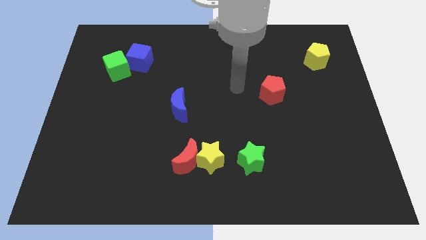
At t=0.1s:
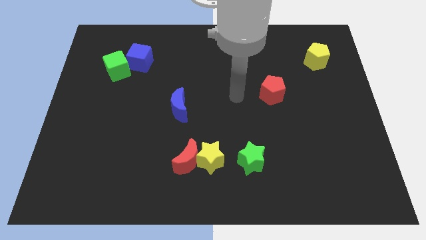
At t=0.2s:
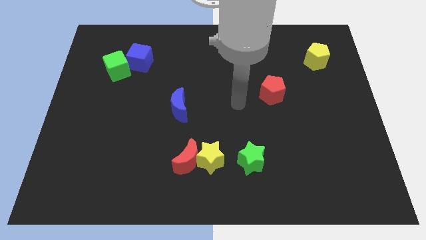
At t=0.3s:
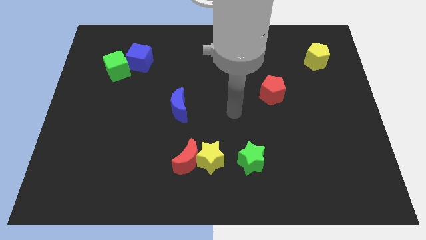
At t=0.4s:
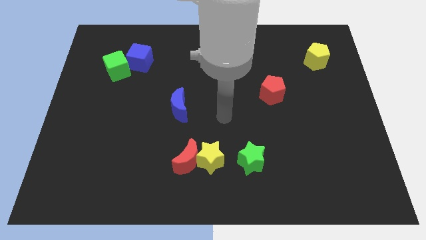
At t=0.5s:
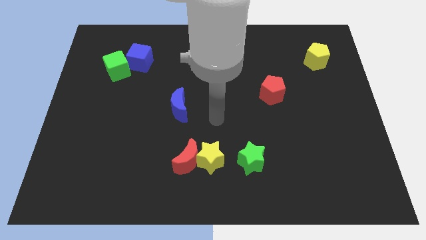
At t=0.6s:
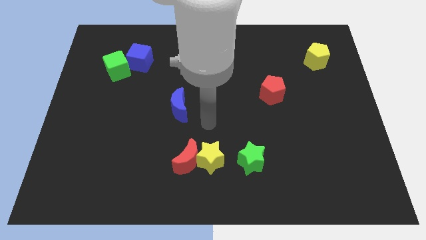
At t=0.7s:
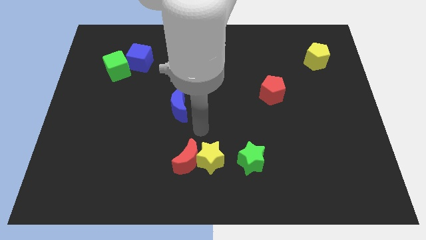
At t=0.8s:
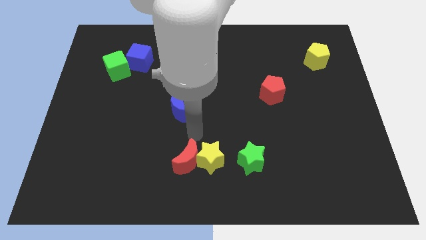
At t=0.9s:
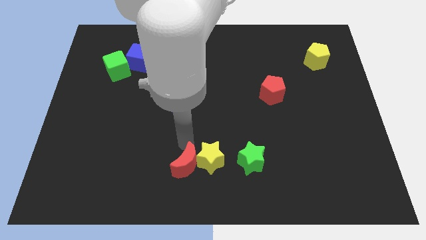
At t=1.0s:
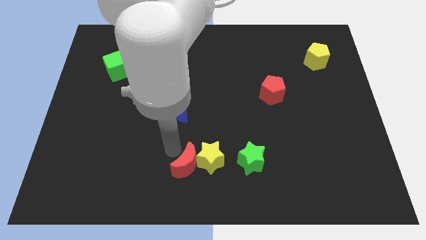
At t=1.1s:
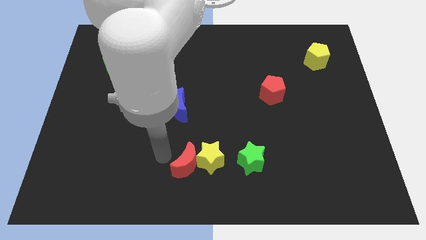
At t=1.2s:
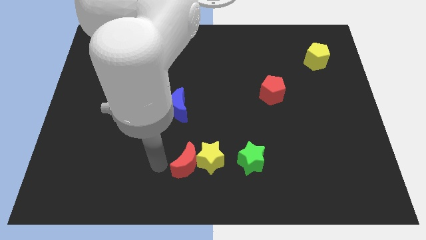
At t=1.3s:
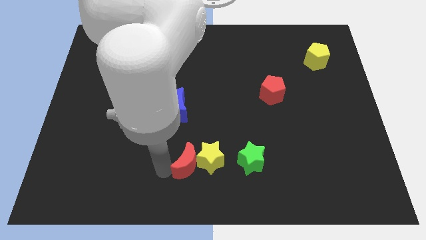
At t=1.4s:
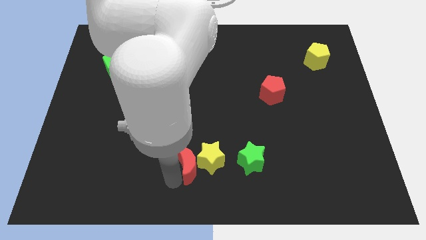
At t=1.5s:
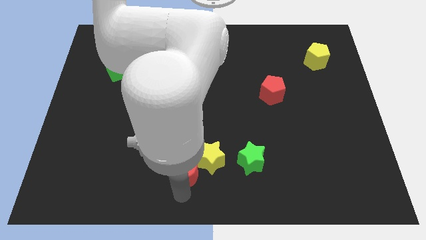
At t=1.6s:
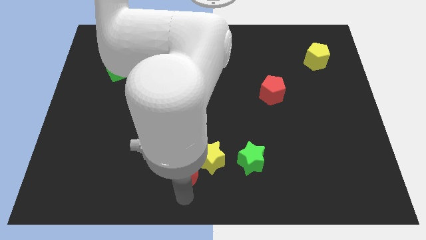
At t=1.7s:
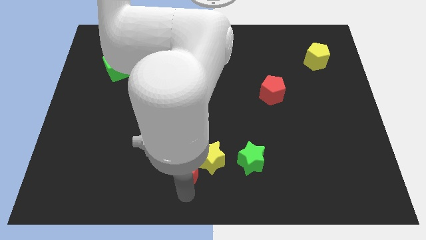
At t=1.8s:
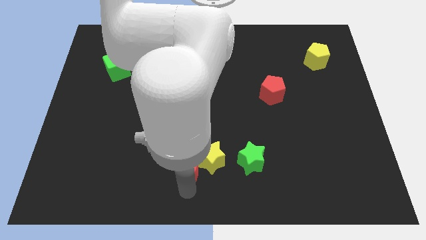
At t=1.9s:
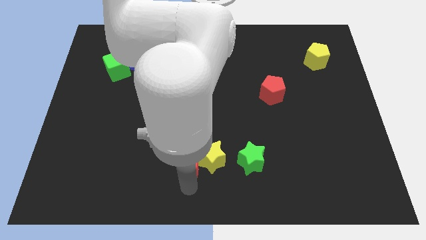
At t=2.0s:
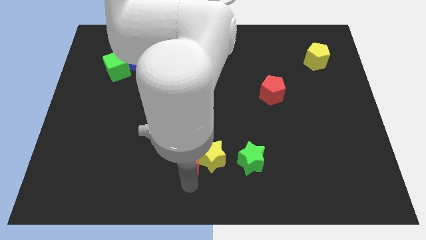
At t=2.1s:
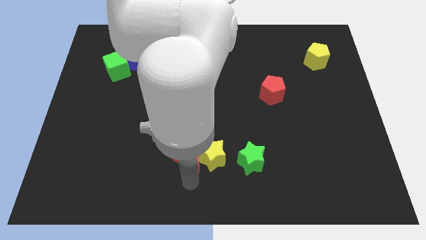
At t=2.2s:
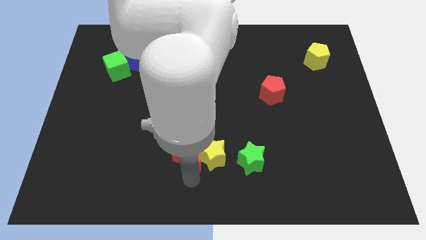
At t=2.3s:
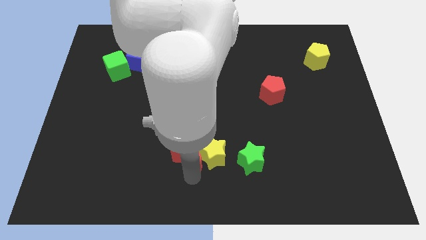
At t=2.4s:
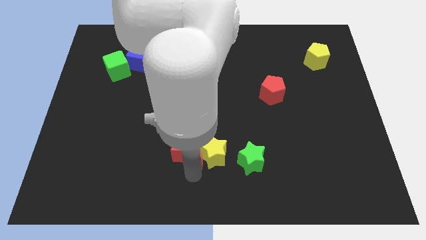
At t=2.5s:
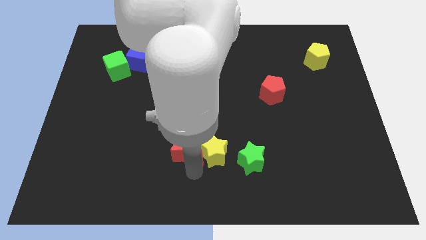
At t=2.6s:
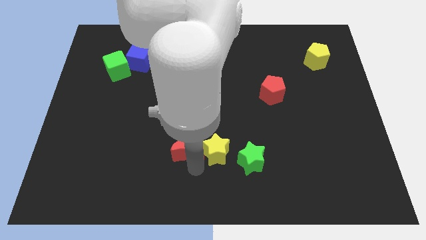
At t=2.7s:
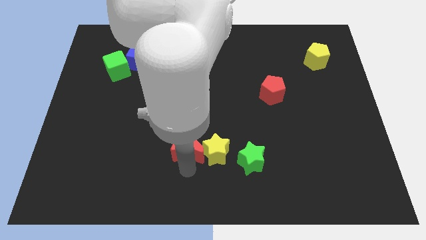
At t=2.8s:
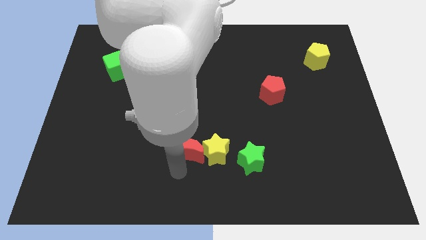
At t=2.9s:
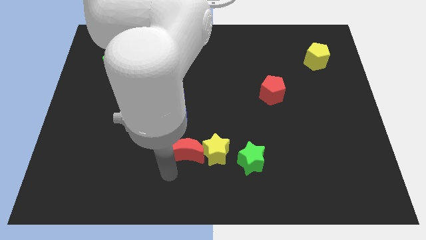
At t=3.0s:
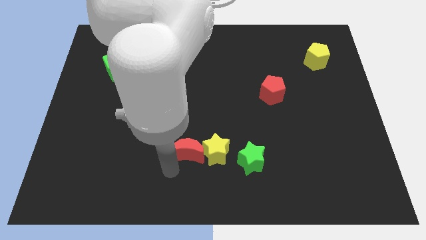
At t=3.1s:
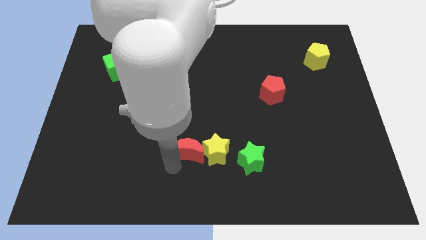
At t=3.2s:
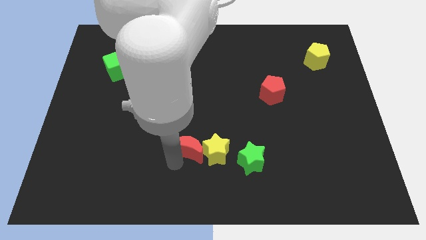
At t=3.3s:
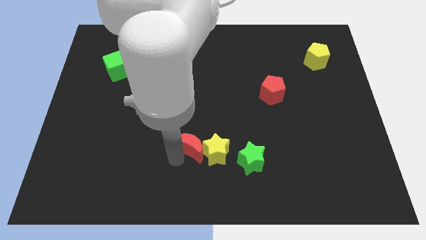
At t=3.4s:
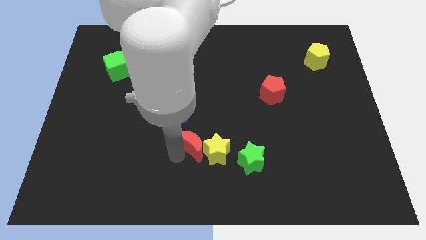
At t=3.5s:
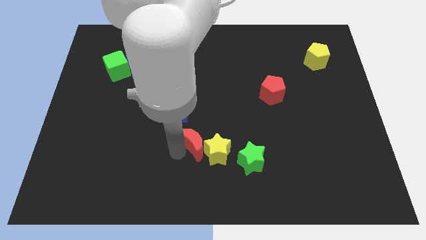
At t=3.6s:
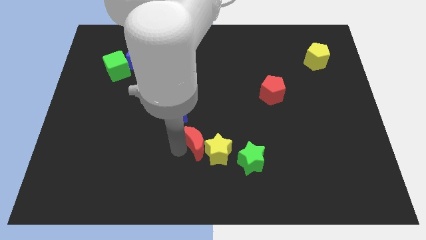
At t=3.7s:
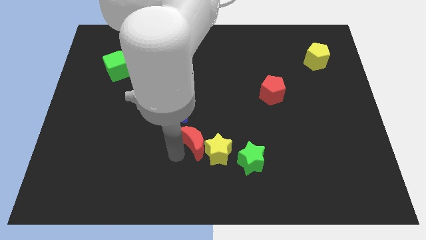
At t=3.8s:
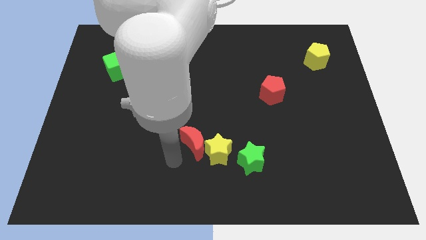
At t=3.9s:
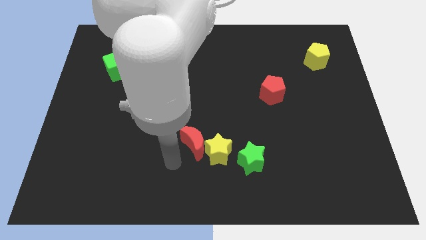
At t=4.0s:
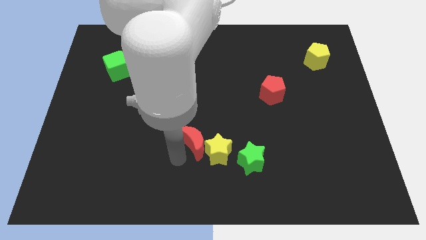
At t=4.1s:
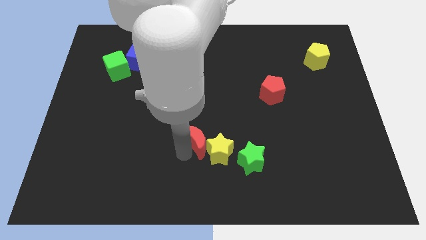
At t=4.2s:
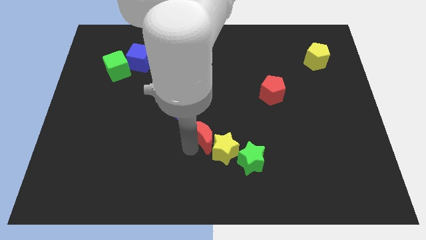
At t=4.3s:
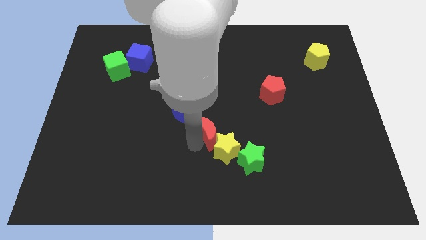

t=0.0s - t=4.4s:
move the red moon a little bit up and then right

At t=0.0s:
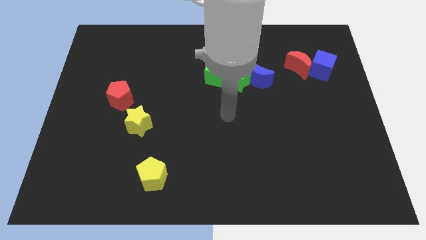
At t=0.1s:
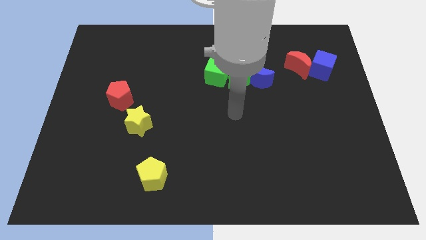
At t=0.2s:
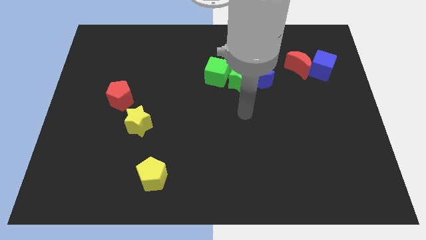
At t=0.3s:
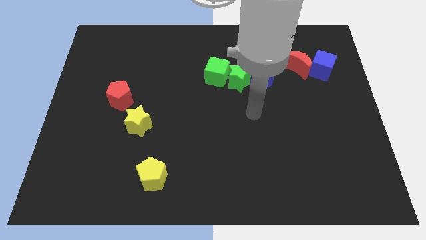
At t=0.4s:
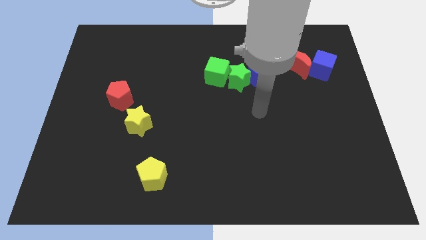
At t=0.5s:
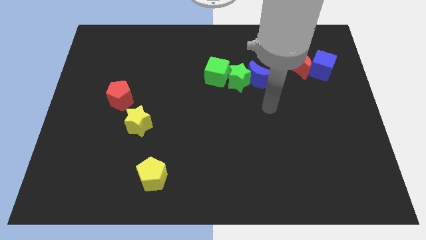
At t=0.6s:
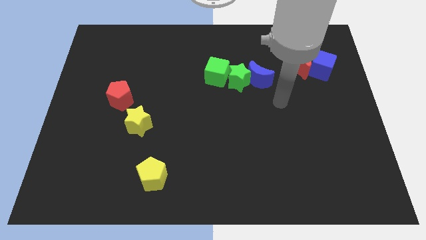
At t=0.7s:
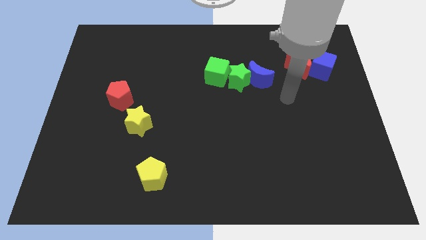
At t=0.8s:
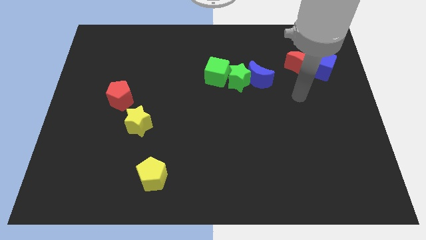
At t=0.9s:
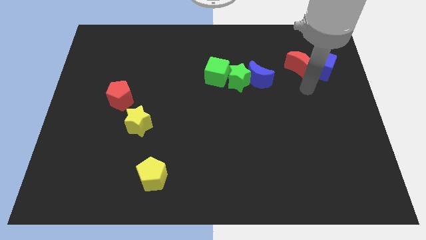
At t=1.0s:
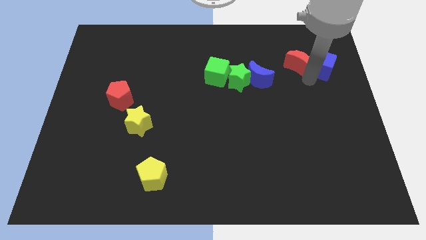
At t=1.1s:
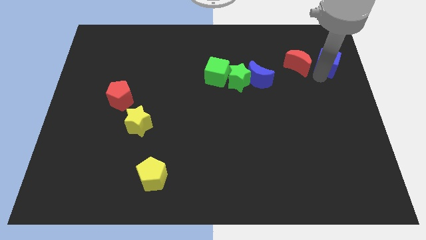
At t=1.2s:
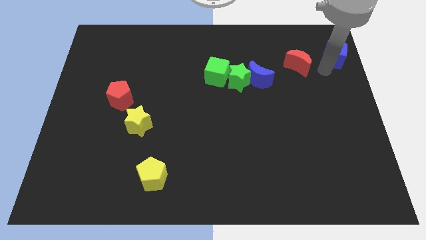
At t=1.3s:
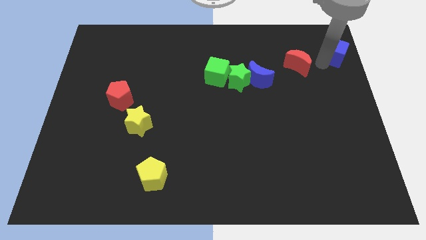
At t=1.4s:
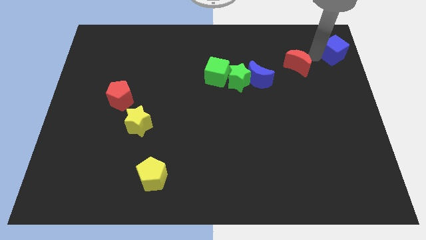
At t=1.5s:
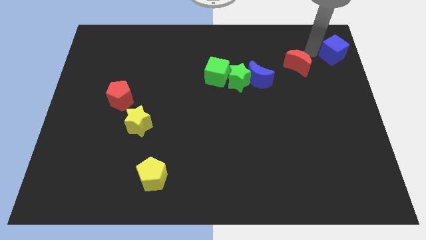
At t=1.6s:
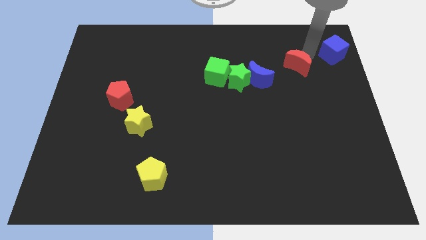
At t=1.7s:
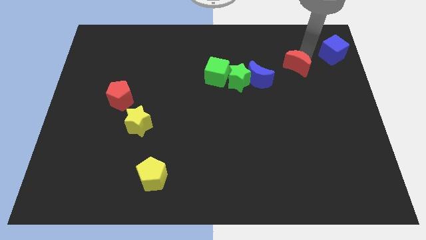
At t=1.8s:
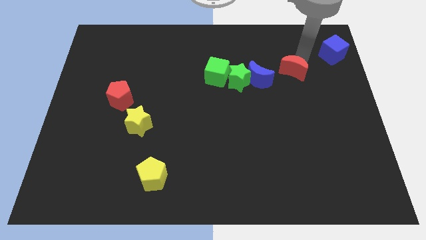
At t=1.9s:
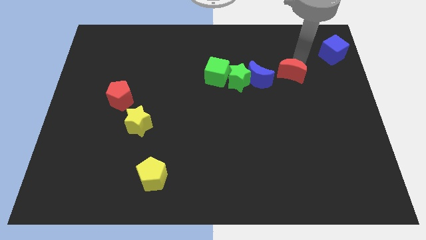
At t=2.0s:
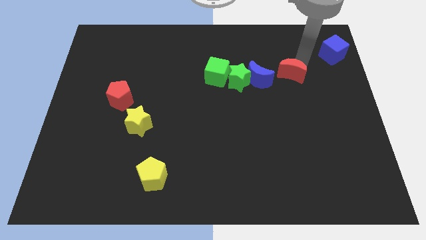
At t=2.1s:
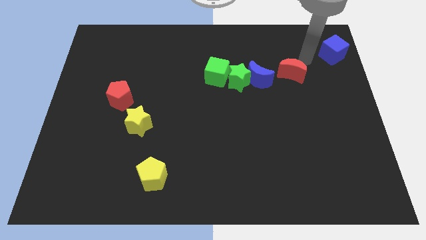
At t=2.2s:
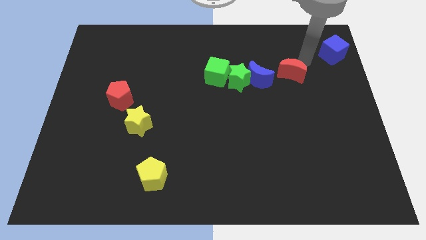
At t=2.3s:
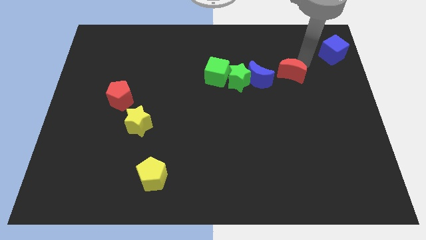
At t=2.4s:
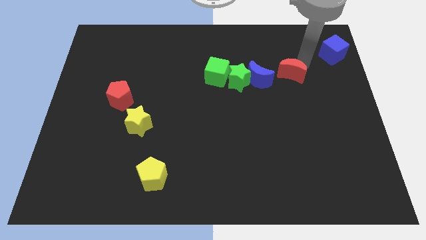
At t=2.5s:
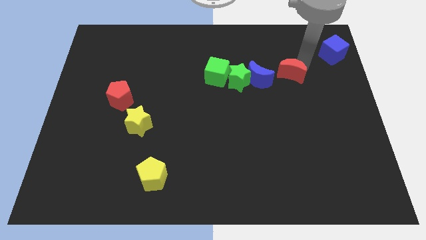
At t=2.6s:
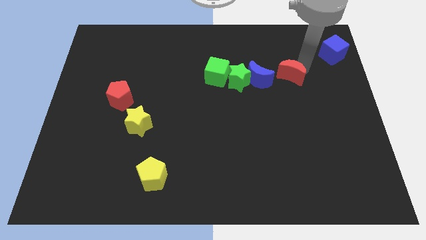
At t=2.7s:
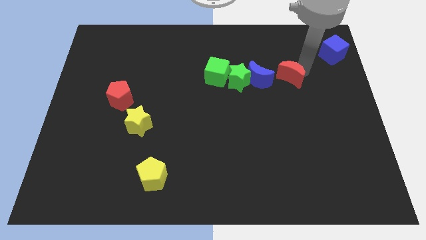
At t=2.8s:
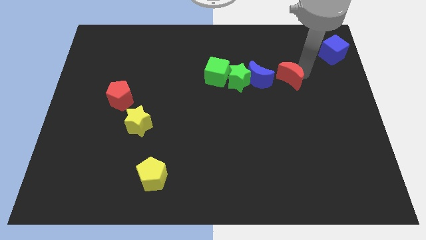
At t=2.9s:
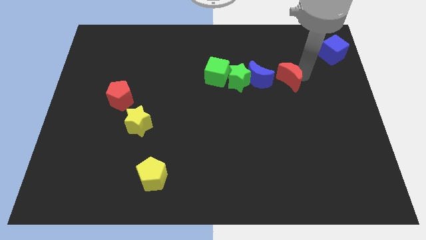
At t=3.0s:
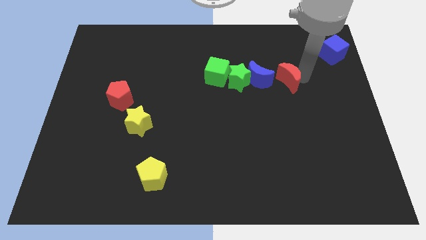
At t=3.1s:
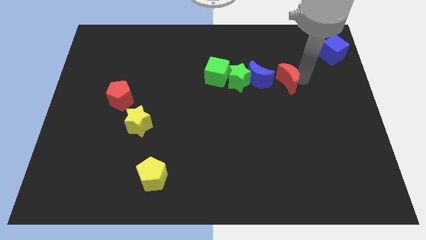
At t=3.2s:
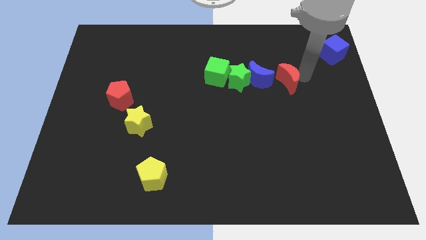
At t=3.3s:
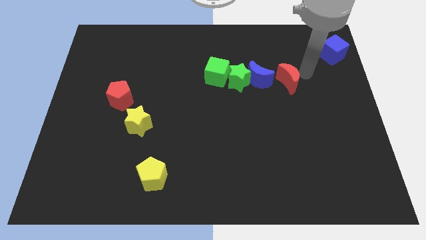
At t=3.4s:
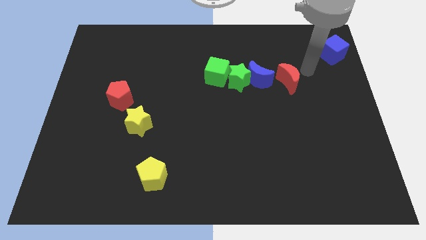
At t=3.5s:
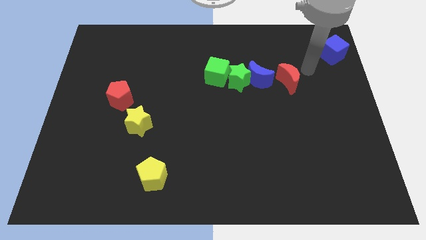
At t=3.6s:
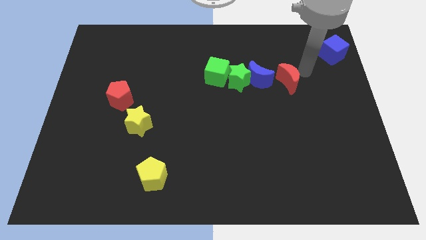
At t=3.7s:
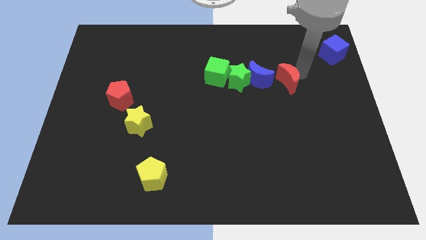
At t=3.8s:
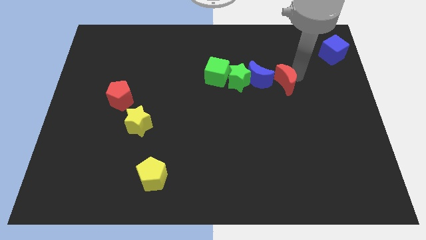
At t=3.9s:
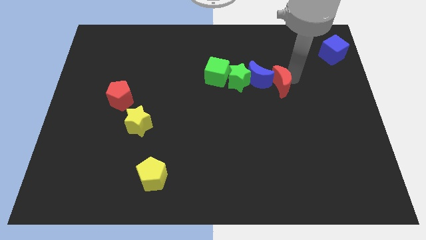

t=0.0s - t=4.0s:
slightly move the red moon downwards and then left
